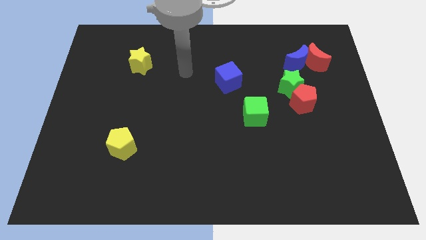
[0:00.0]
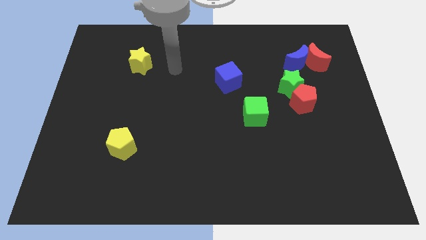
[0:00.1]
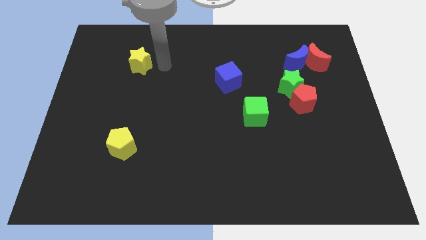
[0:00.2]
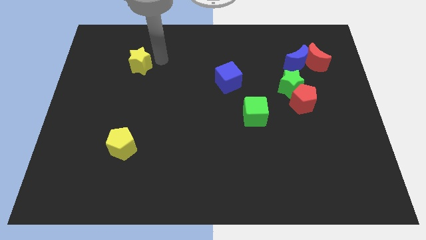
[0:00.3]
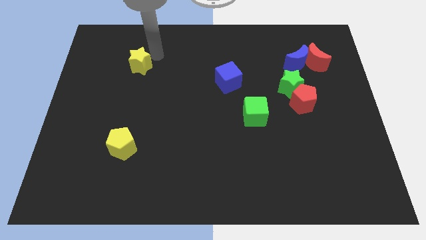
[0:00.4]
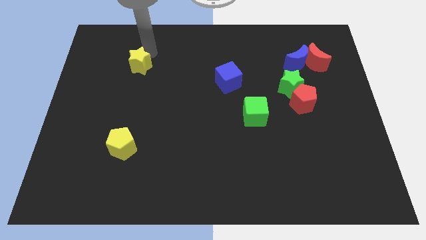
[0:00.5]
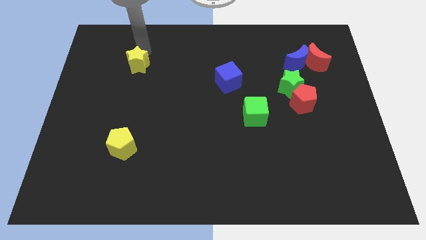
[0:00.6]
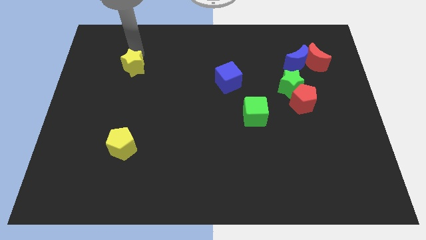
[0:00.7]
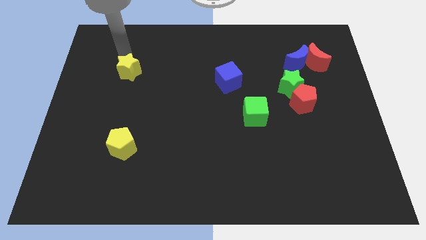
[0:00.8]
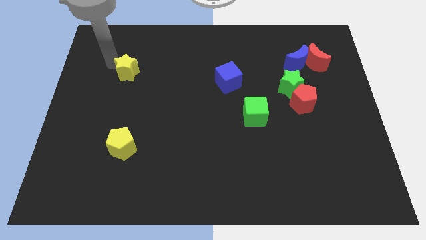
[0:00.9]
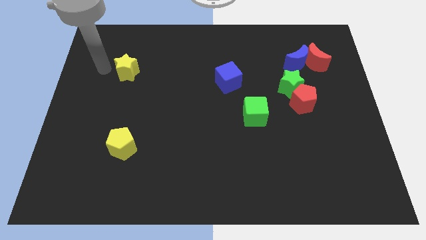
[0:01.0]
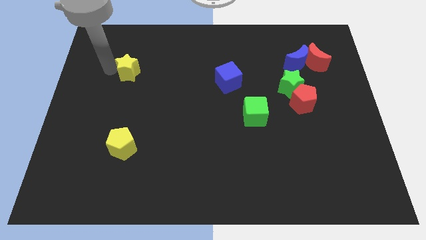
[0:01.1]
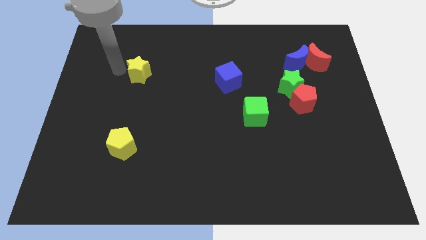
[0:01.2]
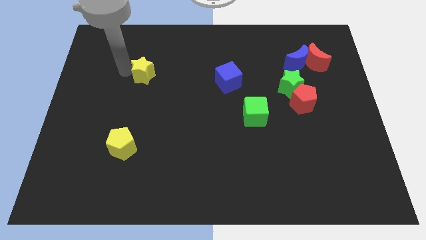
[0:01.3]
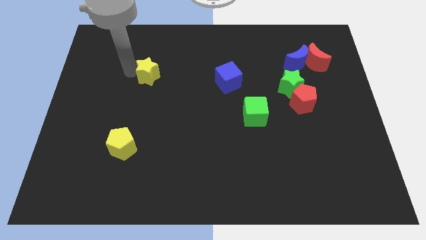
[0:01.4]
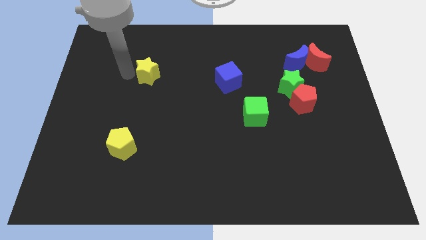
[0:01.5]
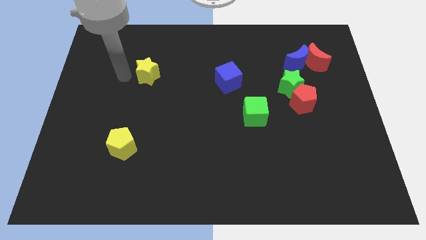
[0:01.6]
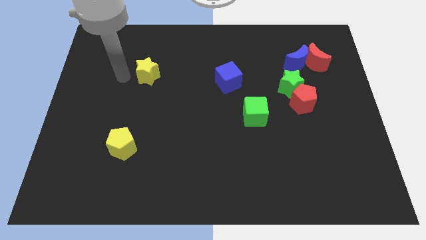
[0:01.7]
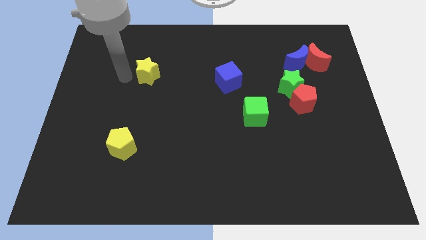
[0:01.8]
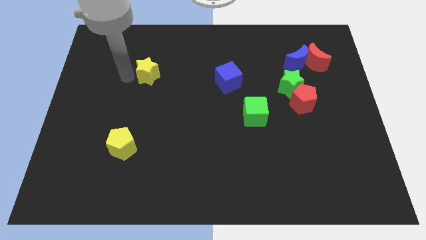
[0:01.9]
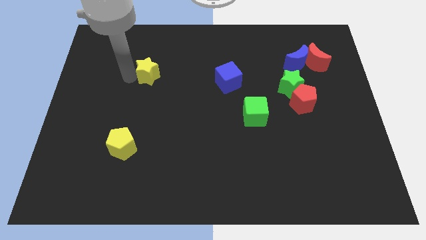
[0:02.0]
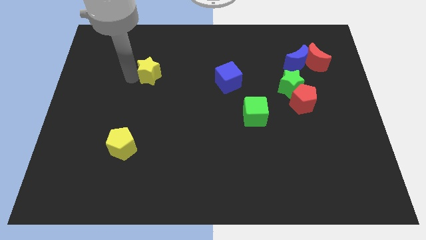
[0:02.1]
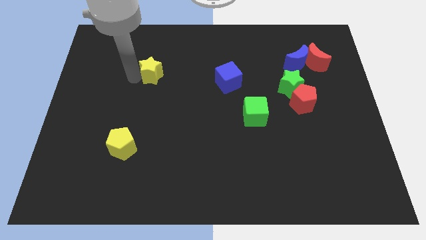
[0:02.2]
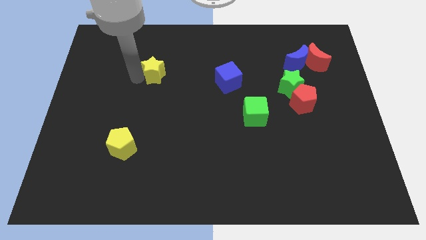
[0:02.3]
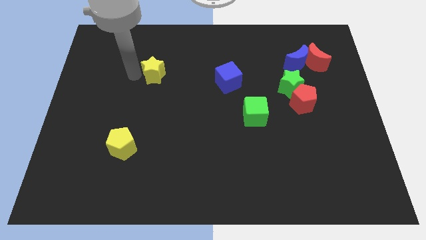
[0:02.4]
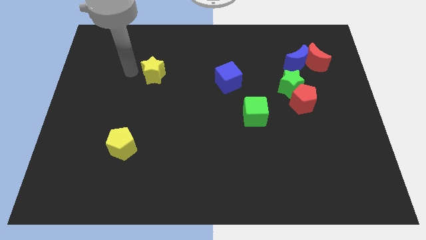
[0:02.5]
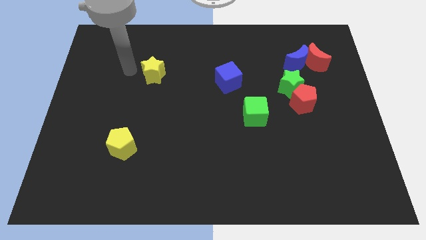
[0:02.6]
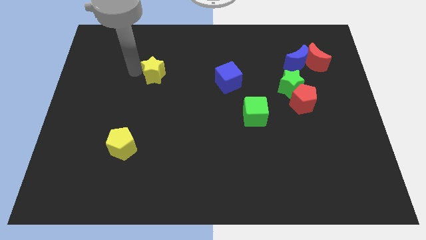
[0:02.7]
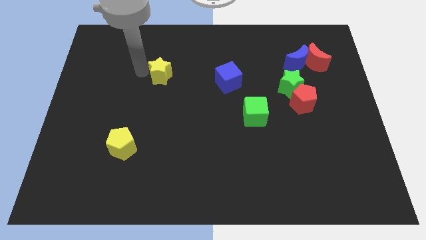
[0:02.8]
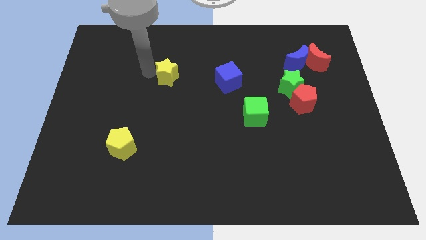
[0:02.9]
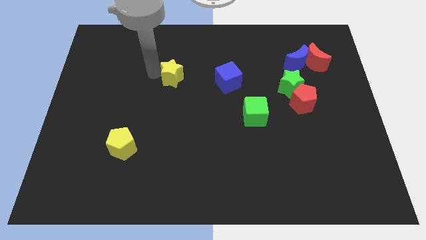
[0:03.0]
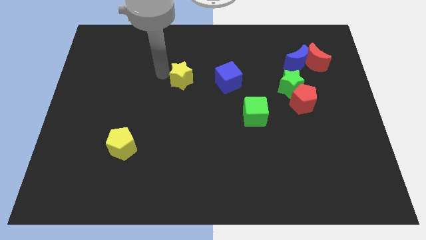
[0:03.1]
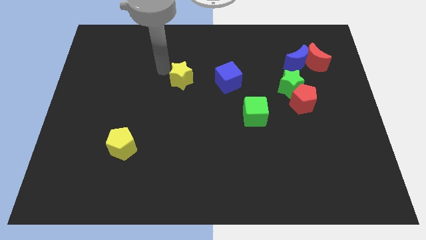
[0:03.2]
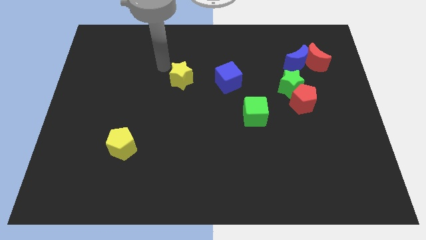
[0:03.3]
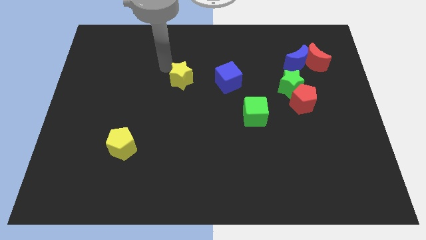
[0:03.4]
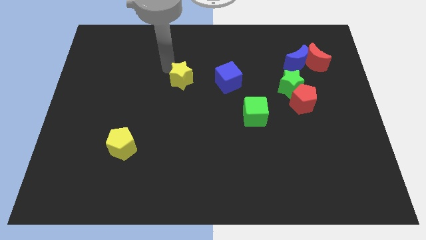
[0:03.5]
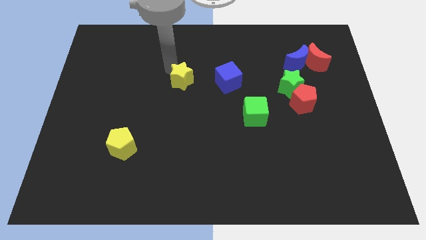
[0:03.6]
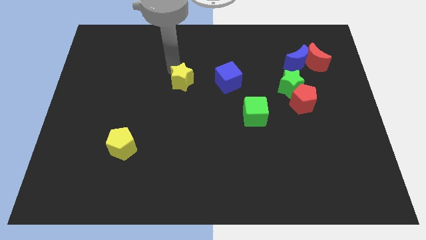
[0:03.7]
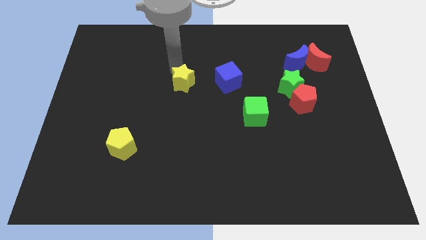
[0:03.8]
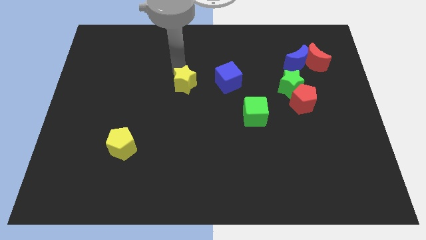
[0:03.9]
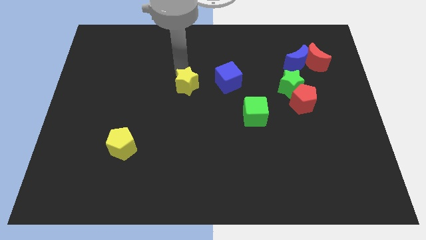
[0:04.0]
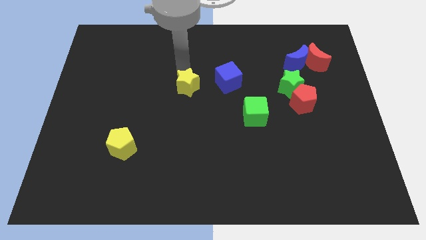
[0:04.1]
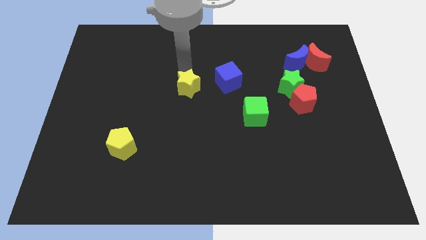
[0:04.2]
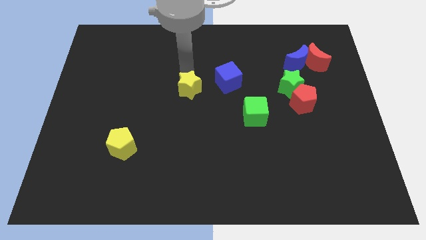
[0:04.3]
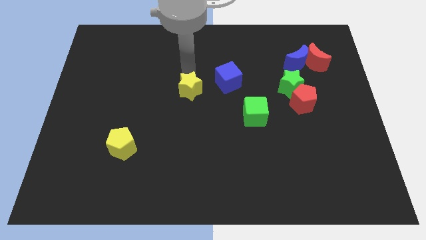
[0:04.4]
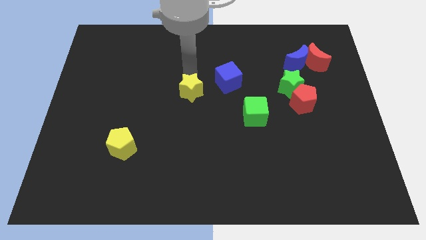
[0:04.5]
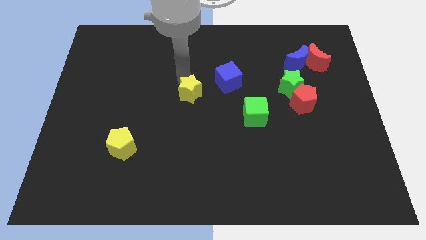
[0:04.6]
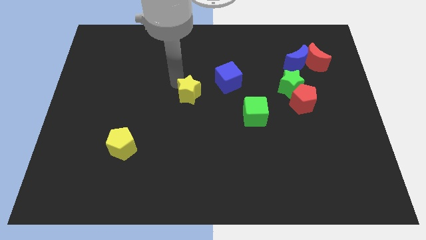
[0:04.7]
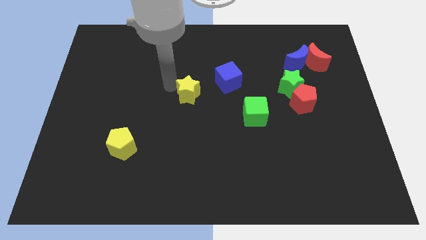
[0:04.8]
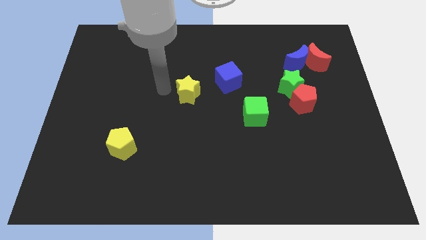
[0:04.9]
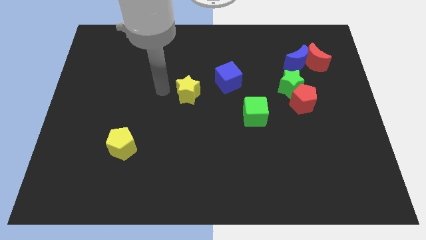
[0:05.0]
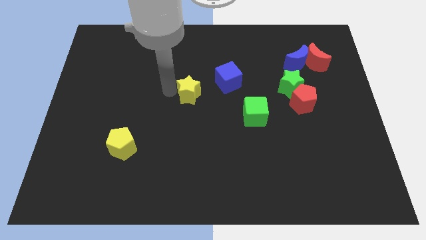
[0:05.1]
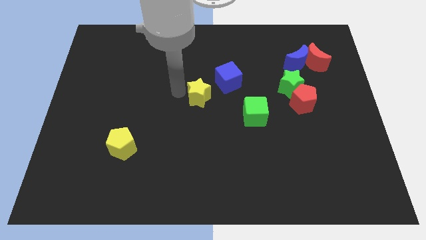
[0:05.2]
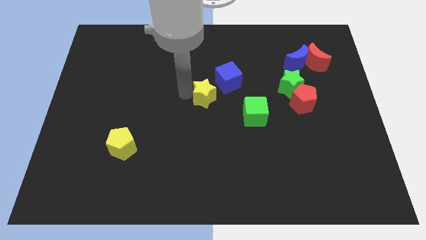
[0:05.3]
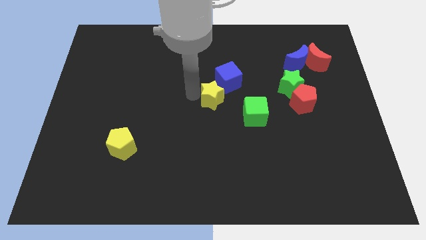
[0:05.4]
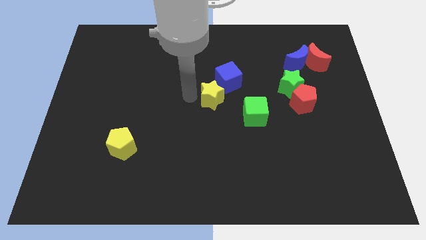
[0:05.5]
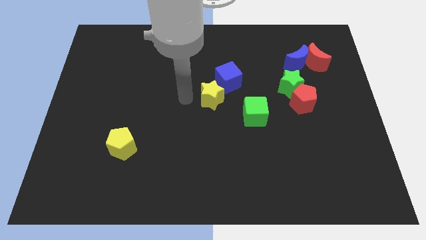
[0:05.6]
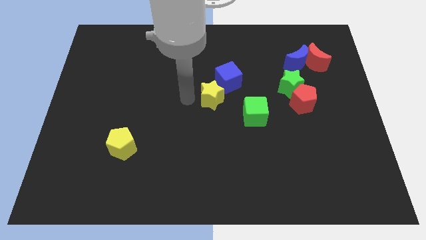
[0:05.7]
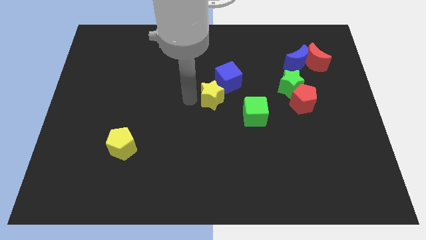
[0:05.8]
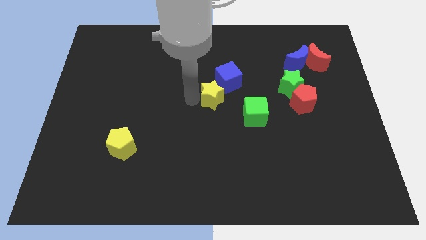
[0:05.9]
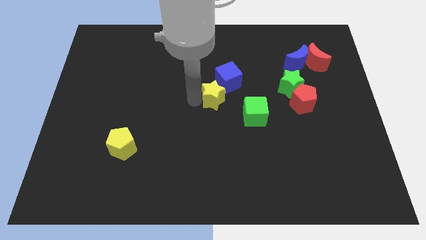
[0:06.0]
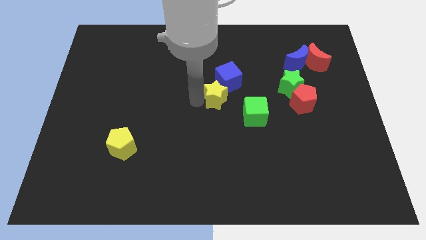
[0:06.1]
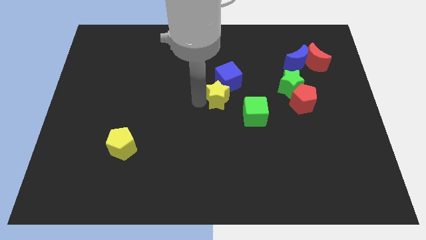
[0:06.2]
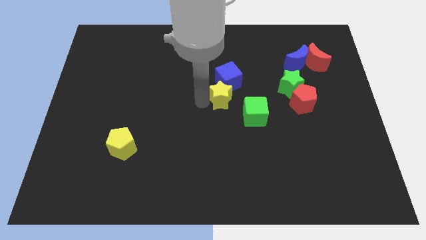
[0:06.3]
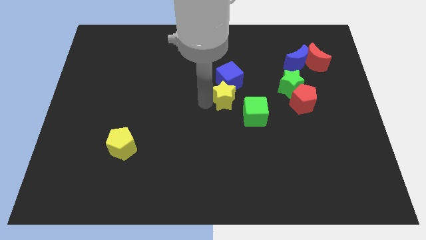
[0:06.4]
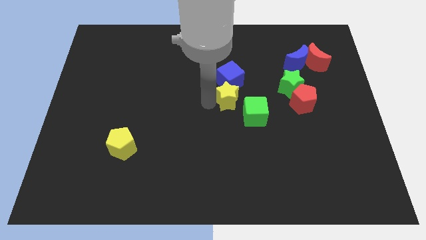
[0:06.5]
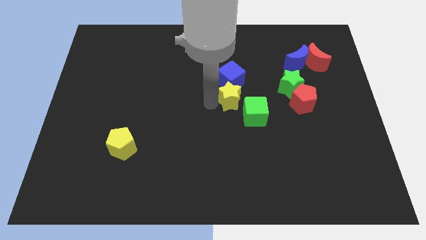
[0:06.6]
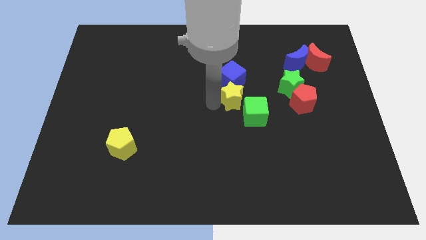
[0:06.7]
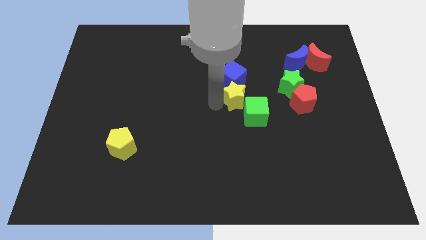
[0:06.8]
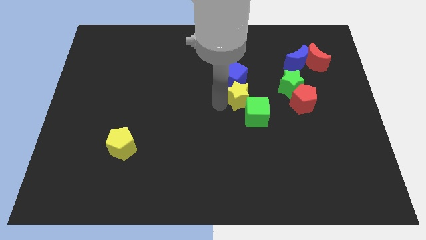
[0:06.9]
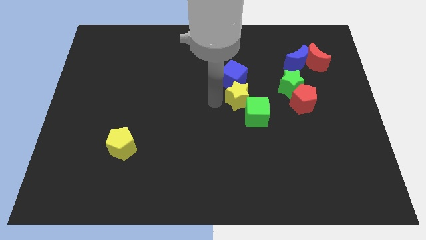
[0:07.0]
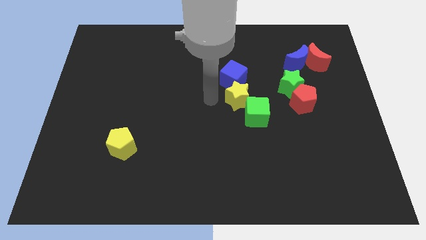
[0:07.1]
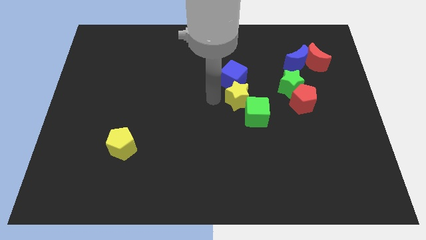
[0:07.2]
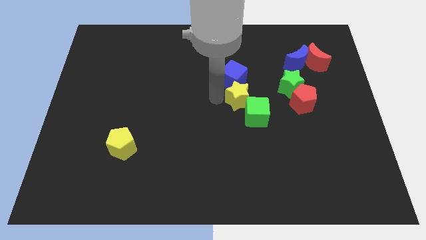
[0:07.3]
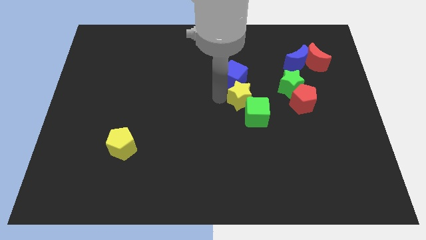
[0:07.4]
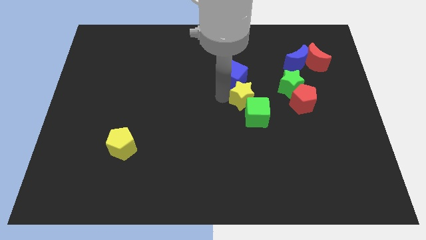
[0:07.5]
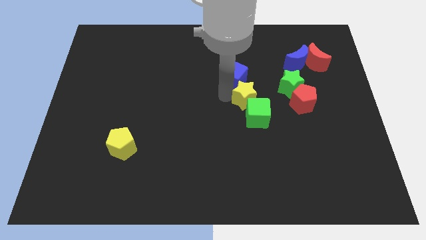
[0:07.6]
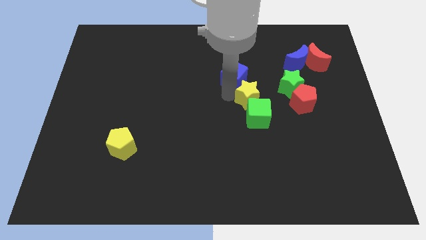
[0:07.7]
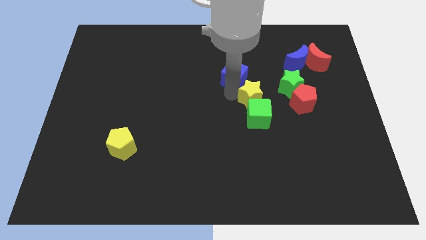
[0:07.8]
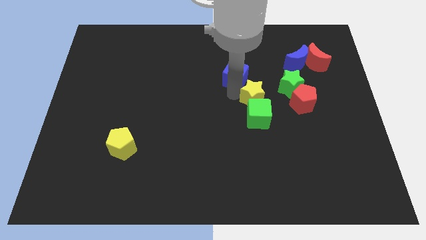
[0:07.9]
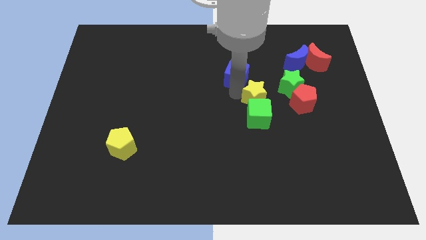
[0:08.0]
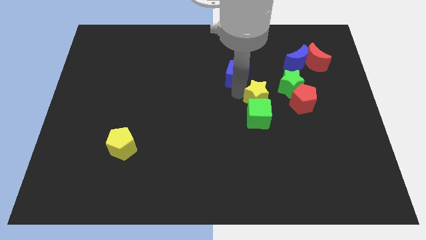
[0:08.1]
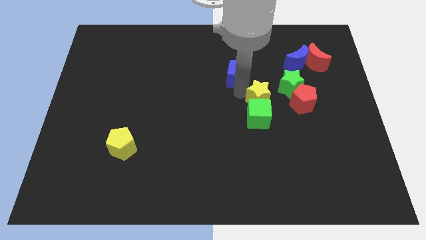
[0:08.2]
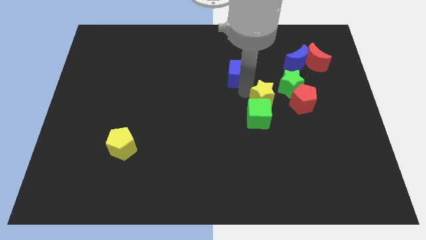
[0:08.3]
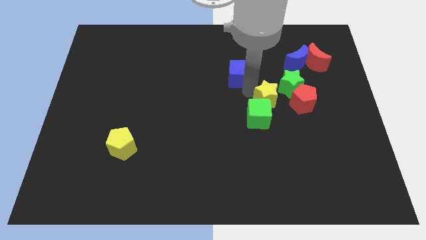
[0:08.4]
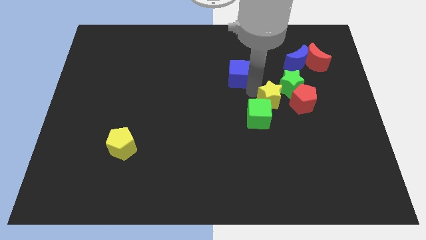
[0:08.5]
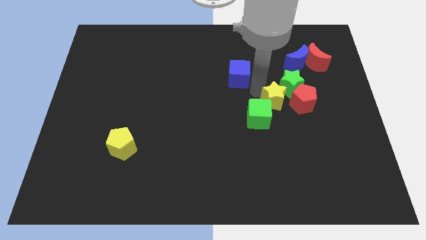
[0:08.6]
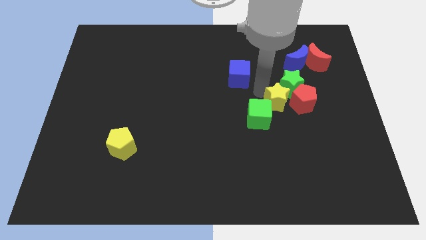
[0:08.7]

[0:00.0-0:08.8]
put the yellow star close to the red pentagon
